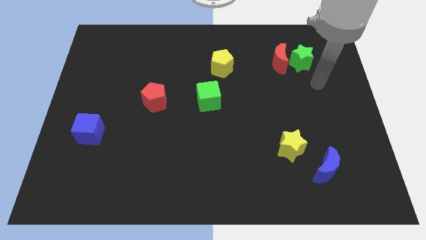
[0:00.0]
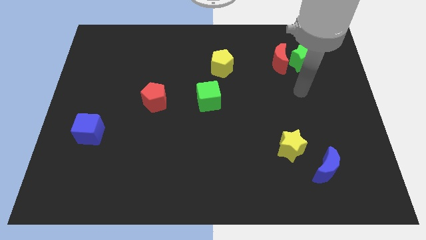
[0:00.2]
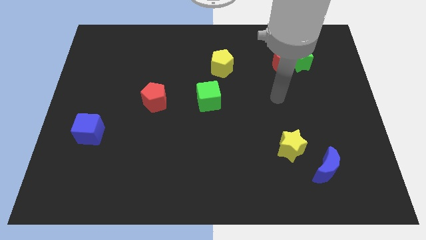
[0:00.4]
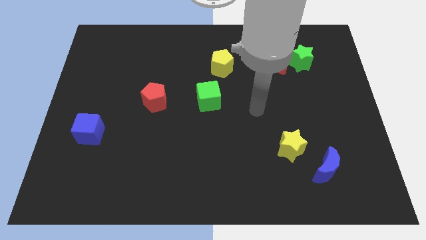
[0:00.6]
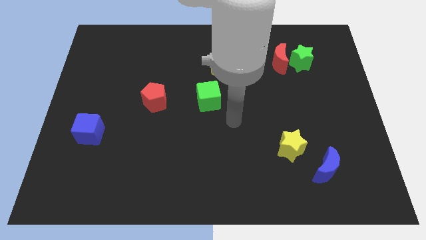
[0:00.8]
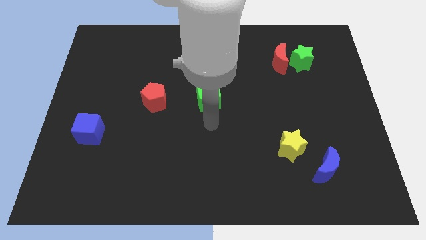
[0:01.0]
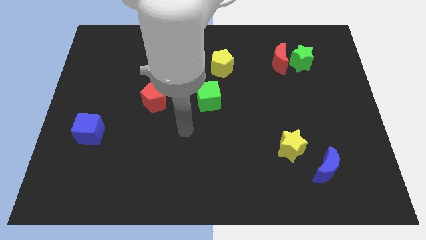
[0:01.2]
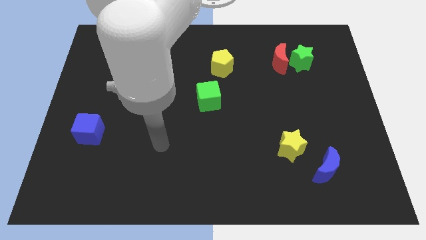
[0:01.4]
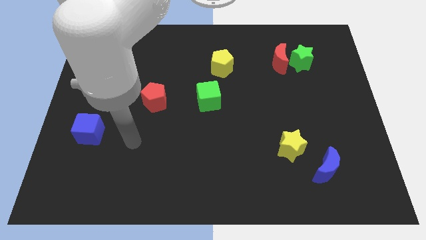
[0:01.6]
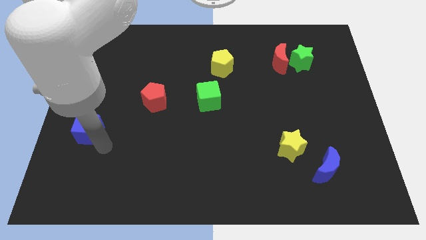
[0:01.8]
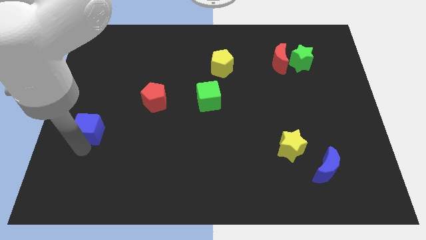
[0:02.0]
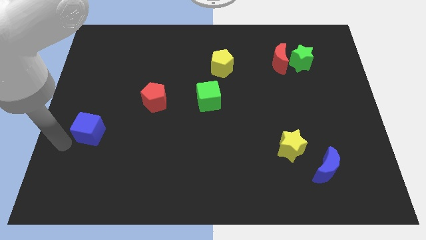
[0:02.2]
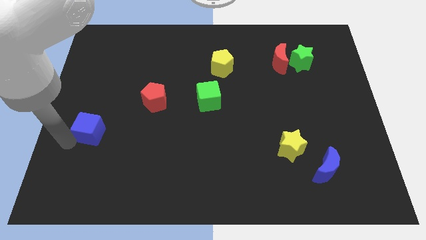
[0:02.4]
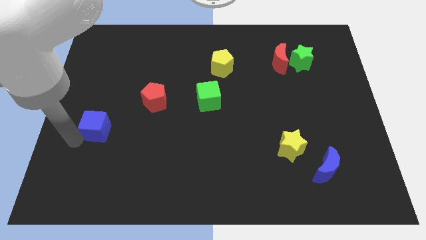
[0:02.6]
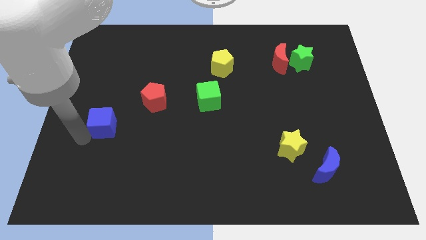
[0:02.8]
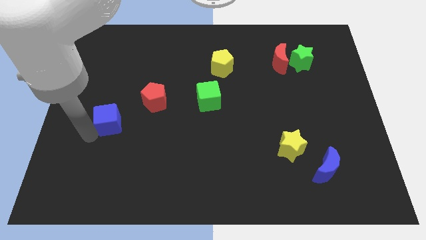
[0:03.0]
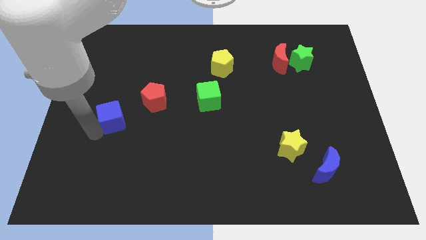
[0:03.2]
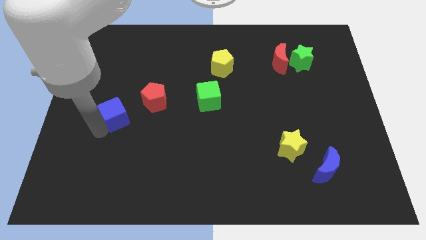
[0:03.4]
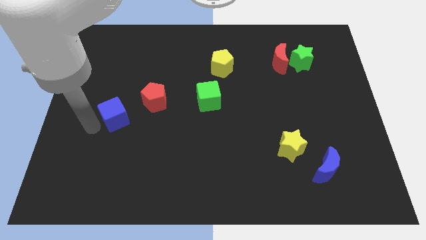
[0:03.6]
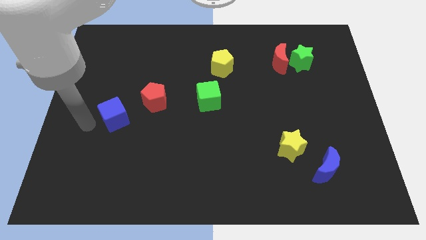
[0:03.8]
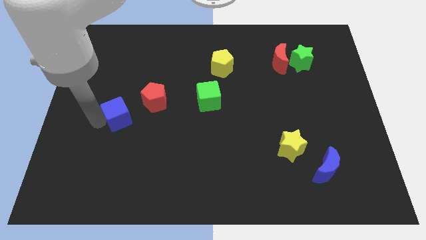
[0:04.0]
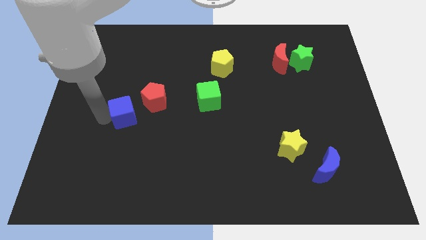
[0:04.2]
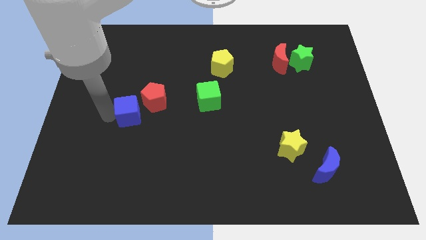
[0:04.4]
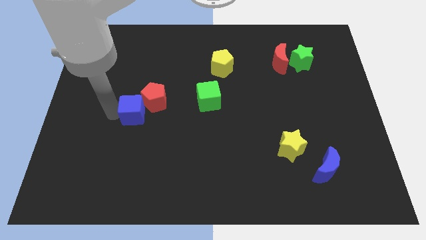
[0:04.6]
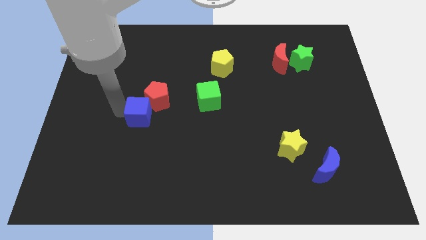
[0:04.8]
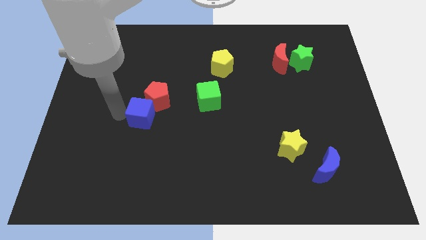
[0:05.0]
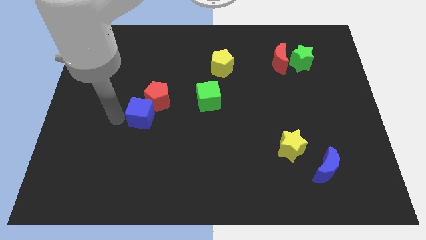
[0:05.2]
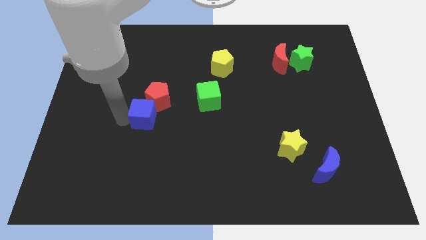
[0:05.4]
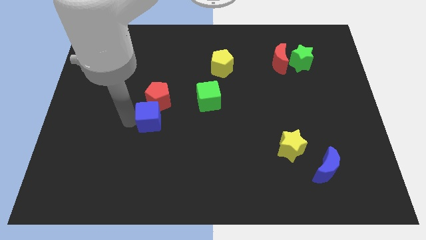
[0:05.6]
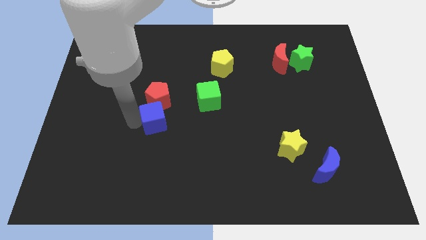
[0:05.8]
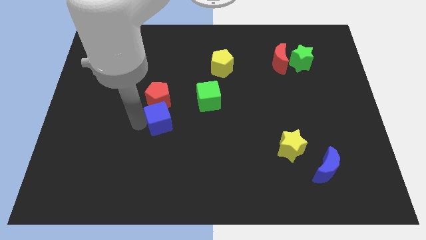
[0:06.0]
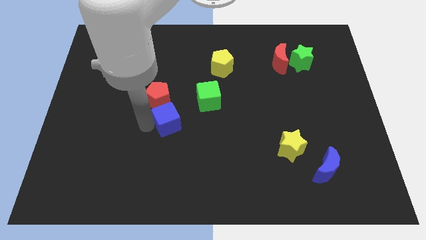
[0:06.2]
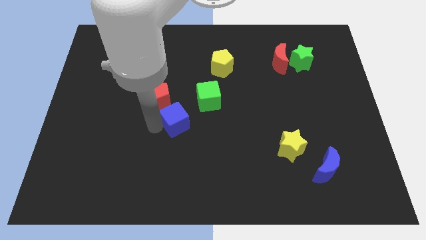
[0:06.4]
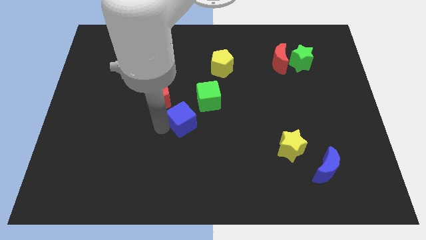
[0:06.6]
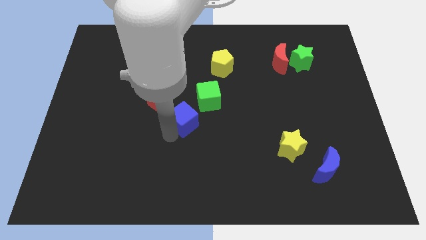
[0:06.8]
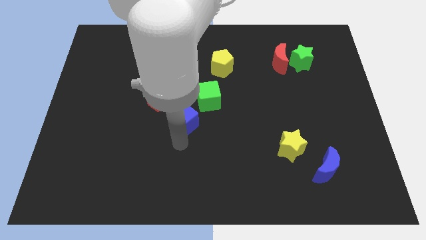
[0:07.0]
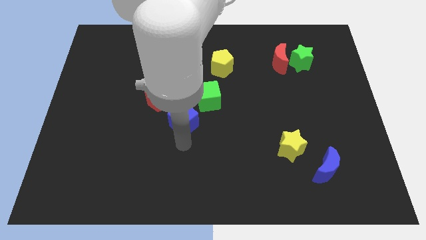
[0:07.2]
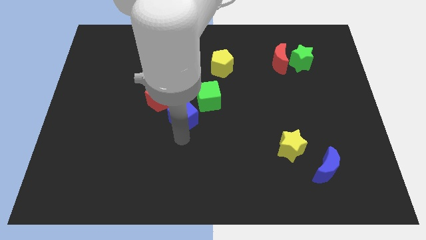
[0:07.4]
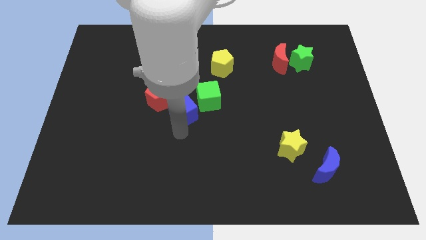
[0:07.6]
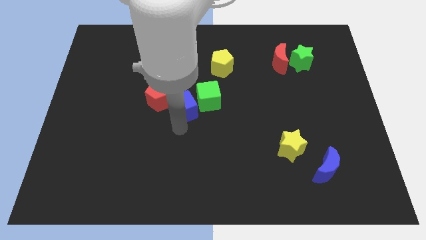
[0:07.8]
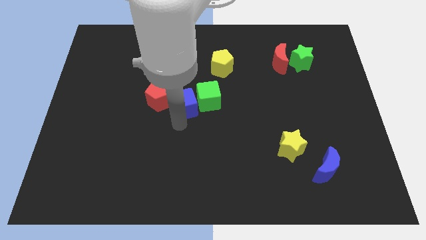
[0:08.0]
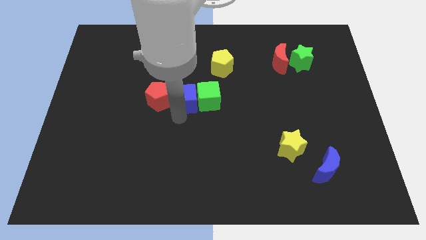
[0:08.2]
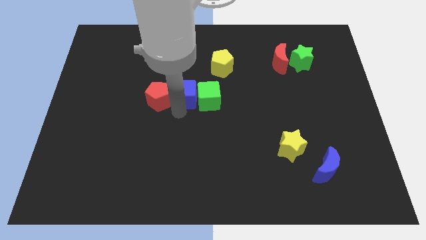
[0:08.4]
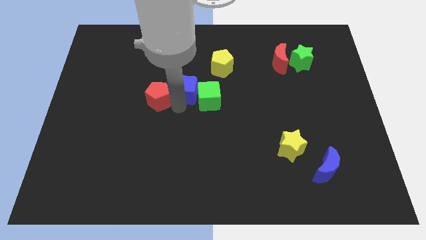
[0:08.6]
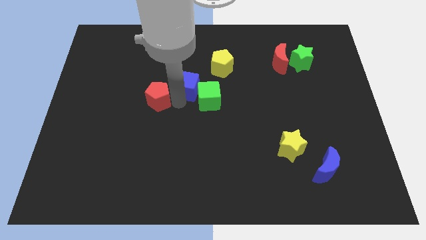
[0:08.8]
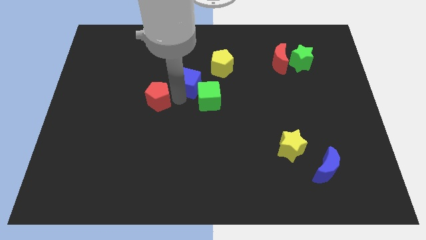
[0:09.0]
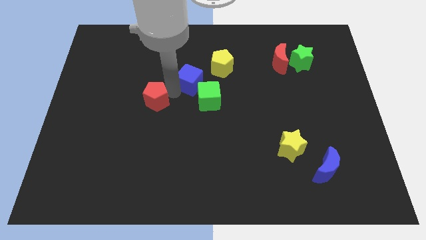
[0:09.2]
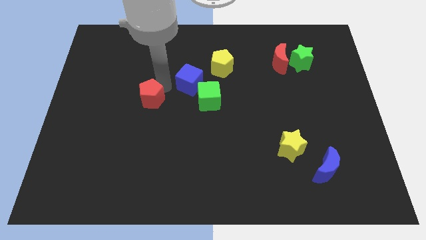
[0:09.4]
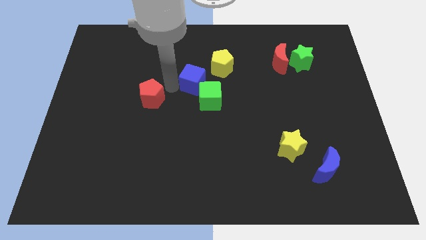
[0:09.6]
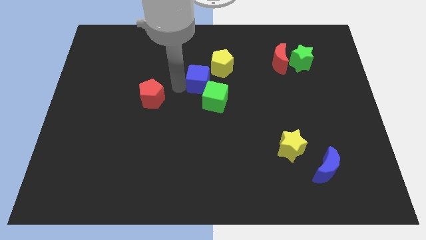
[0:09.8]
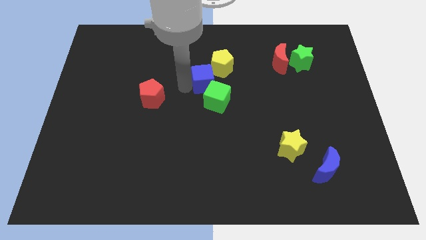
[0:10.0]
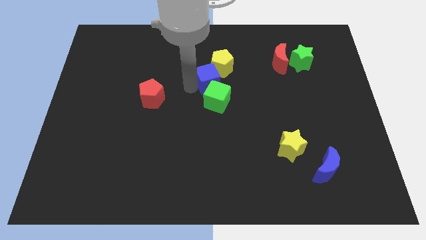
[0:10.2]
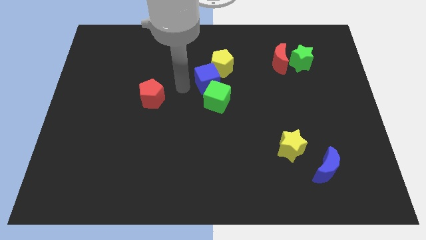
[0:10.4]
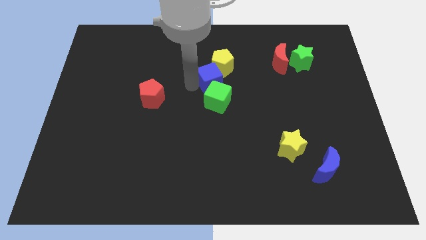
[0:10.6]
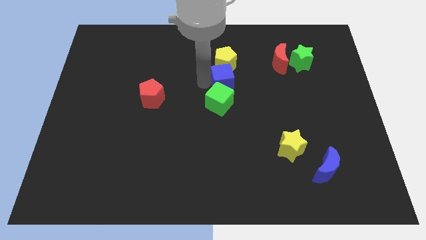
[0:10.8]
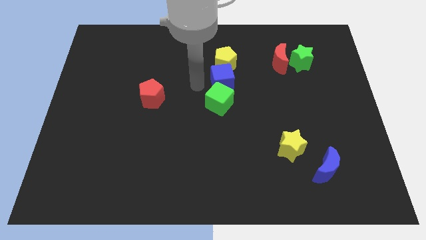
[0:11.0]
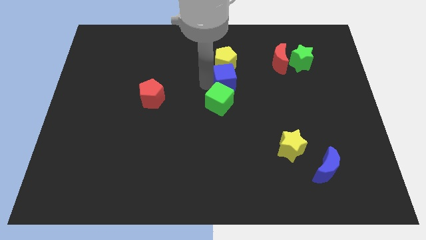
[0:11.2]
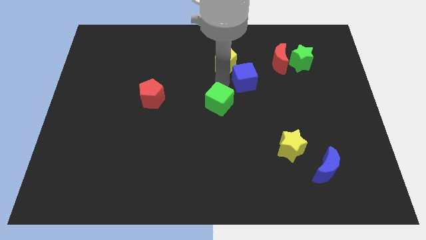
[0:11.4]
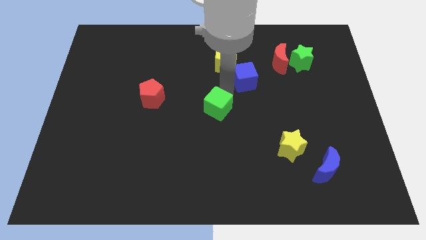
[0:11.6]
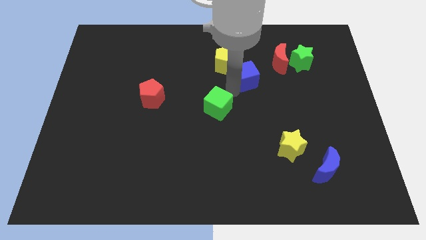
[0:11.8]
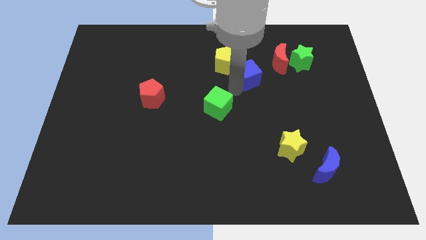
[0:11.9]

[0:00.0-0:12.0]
put the blue cube to the right side of the yellow pentagon
